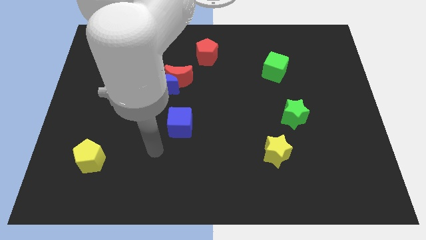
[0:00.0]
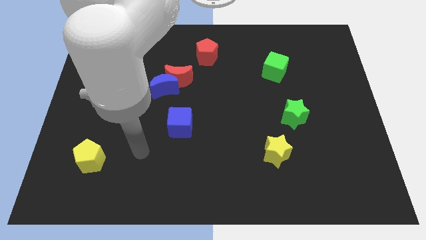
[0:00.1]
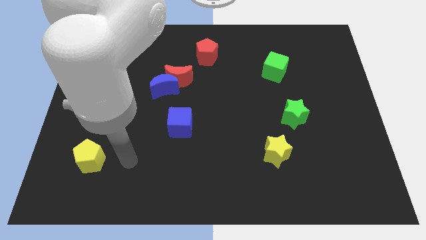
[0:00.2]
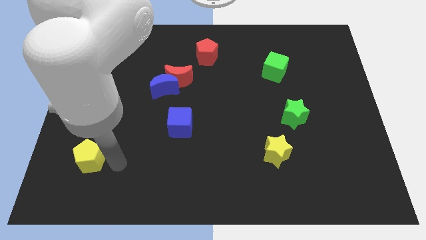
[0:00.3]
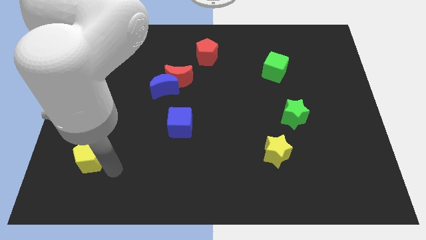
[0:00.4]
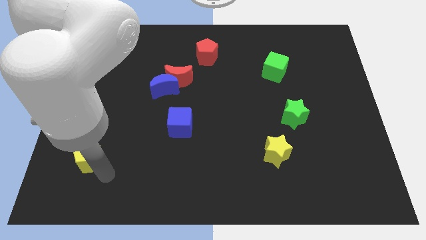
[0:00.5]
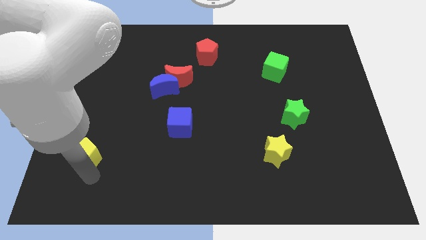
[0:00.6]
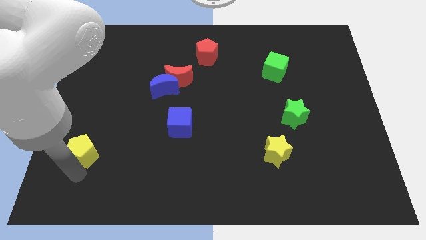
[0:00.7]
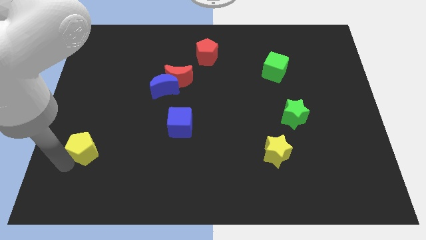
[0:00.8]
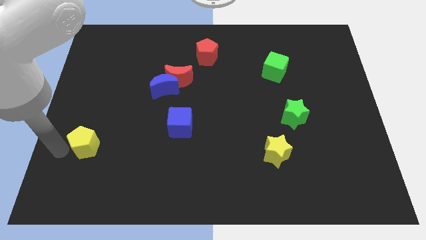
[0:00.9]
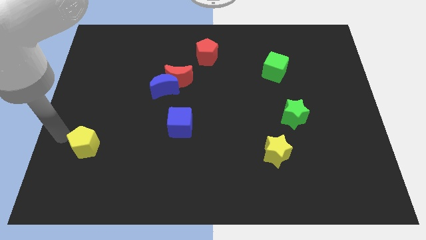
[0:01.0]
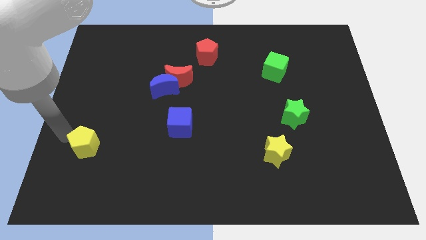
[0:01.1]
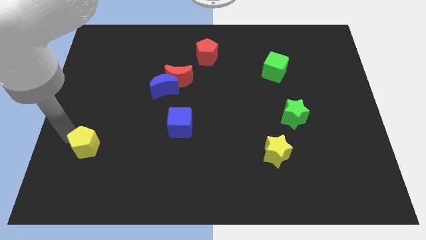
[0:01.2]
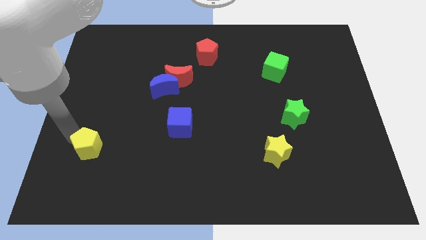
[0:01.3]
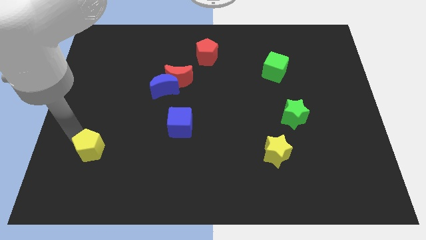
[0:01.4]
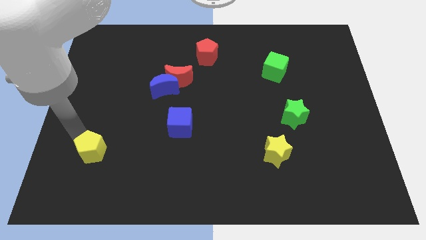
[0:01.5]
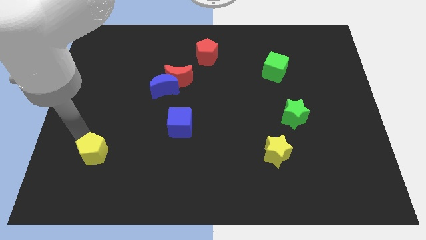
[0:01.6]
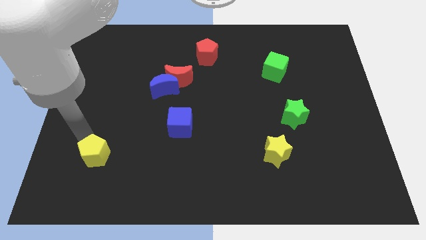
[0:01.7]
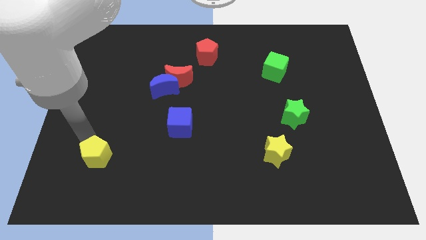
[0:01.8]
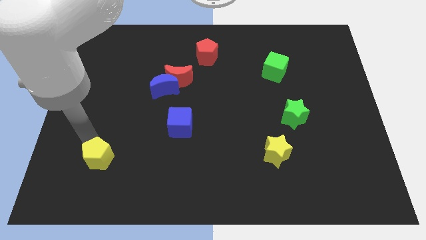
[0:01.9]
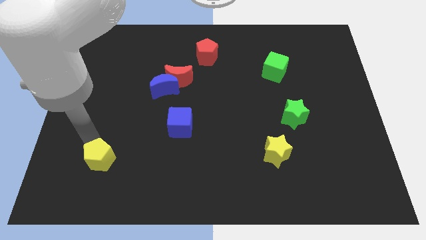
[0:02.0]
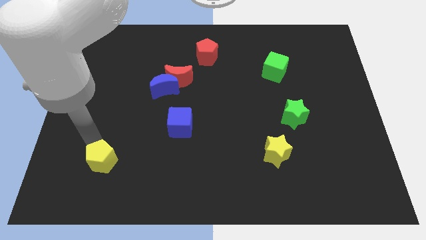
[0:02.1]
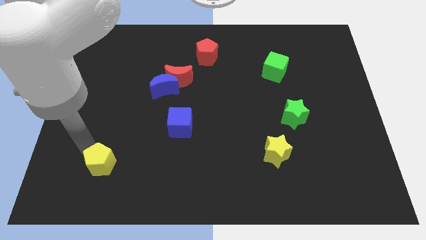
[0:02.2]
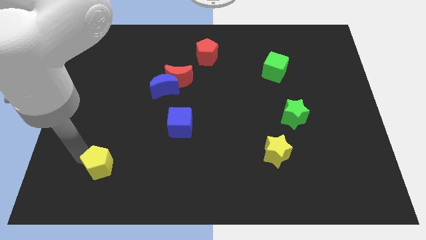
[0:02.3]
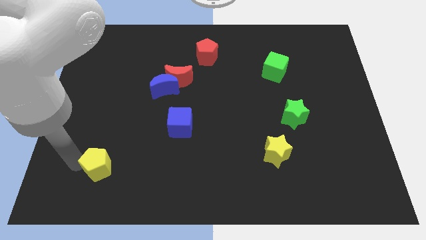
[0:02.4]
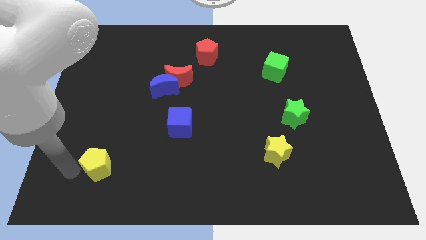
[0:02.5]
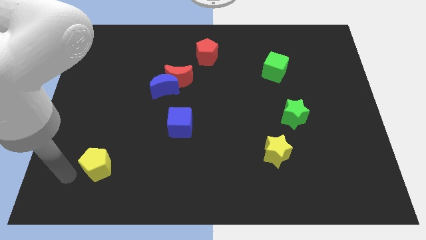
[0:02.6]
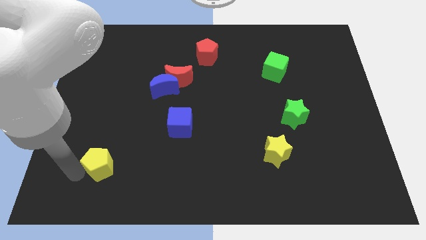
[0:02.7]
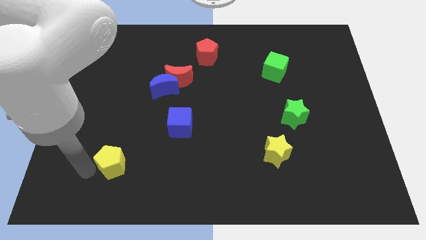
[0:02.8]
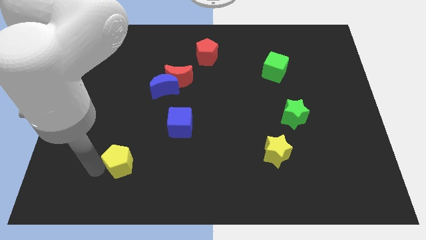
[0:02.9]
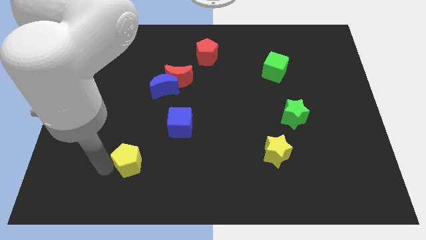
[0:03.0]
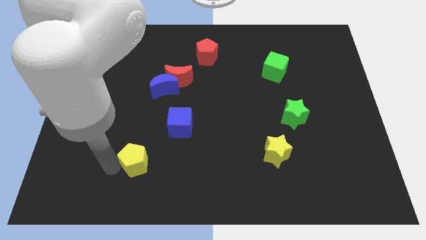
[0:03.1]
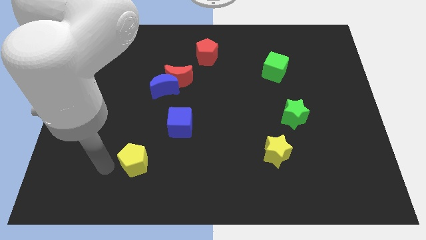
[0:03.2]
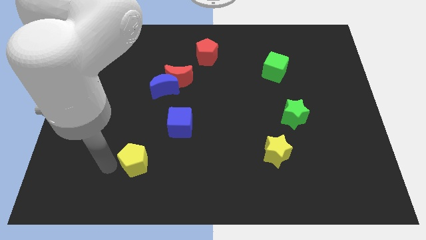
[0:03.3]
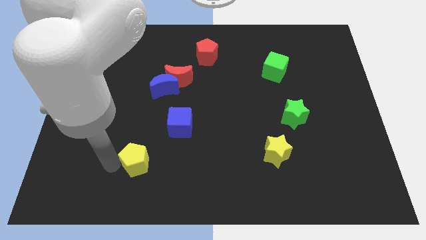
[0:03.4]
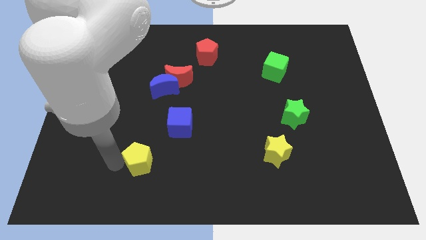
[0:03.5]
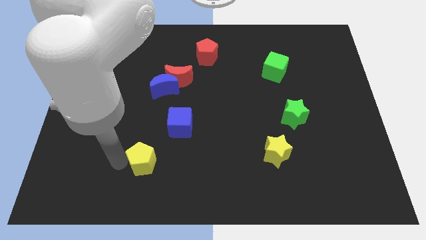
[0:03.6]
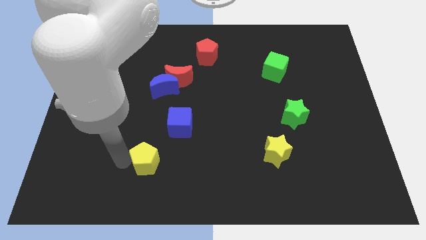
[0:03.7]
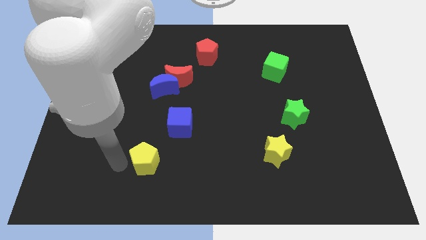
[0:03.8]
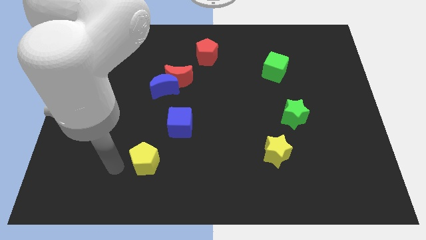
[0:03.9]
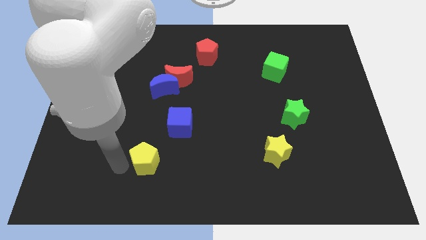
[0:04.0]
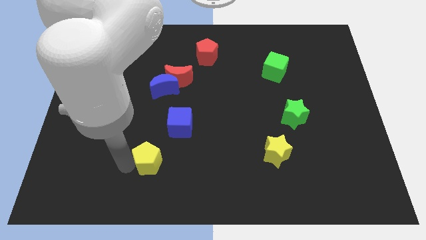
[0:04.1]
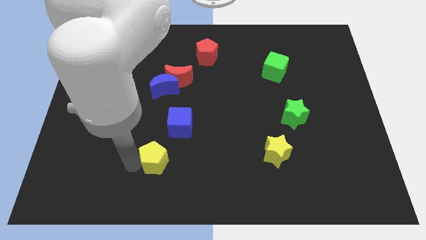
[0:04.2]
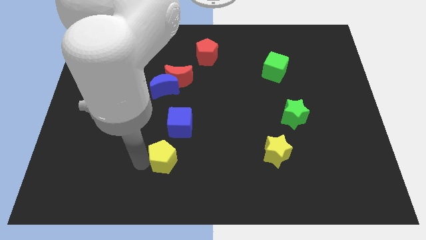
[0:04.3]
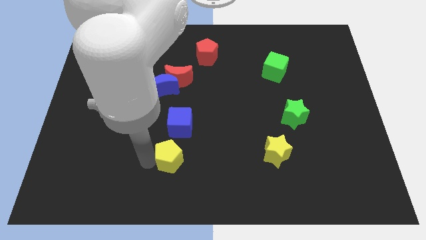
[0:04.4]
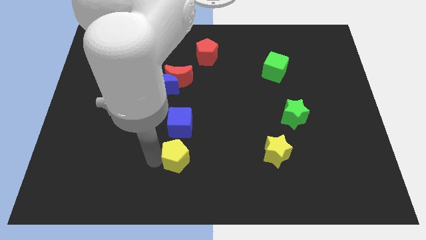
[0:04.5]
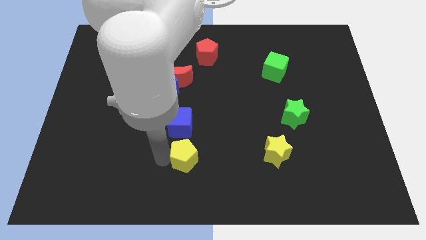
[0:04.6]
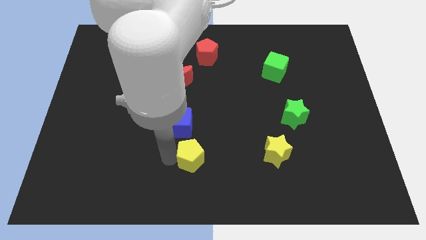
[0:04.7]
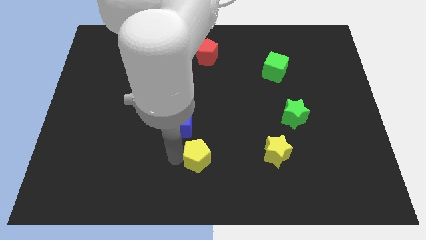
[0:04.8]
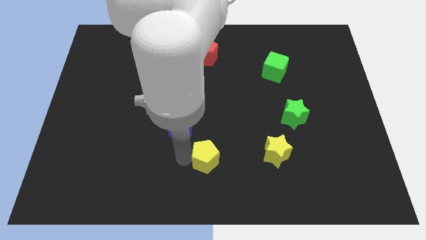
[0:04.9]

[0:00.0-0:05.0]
push the yellow pentagon to the left of the yellow star

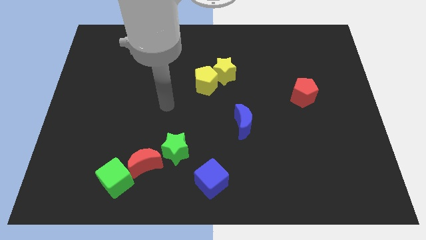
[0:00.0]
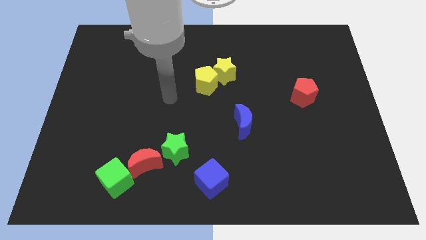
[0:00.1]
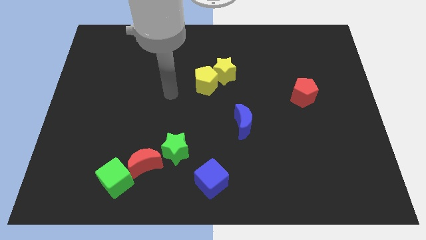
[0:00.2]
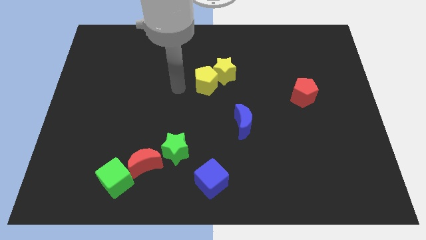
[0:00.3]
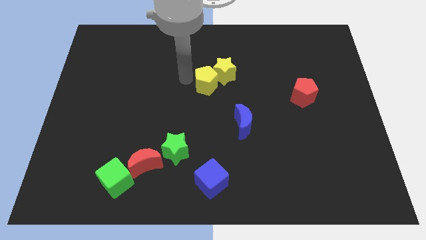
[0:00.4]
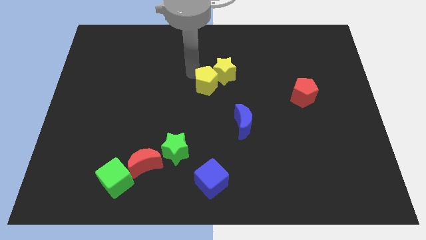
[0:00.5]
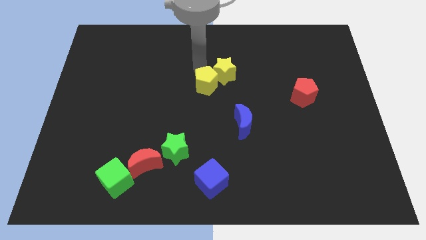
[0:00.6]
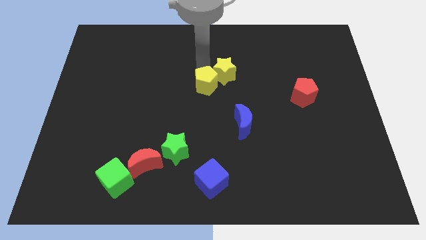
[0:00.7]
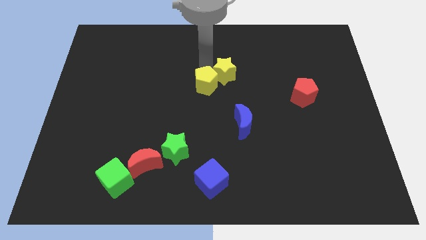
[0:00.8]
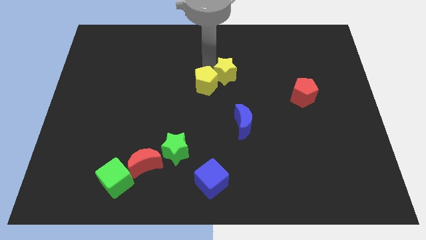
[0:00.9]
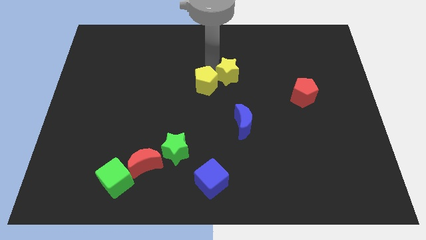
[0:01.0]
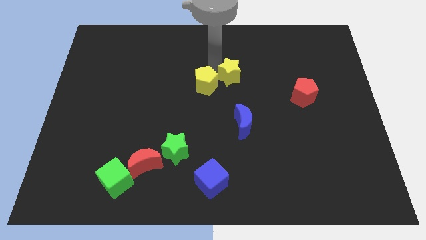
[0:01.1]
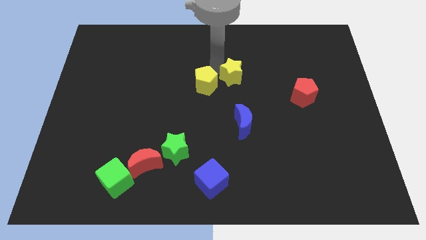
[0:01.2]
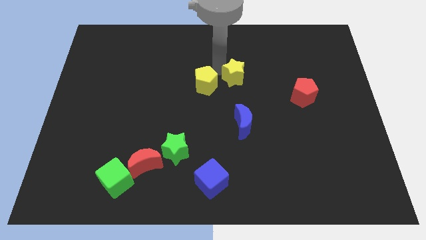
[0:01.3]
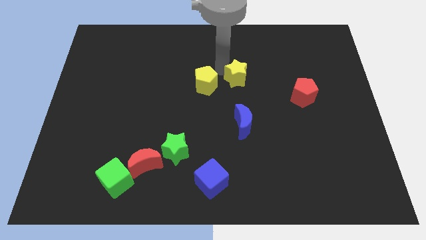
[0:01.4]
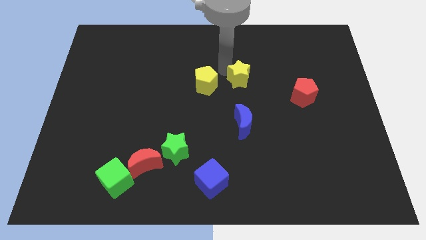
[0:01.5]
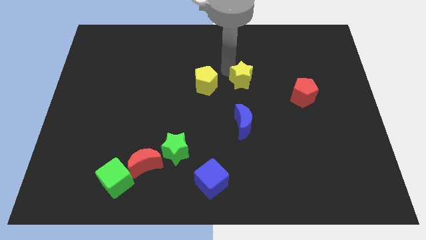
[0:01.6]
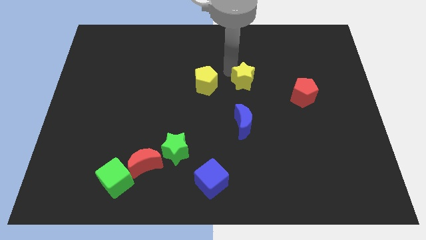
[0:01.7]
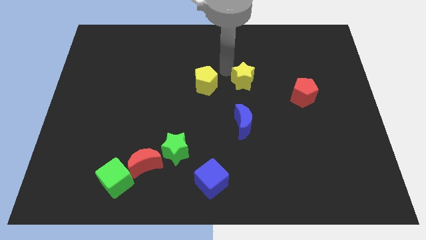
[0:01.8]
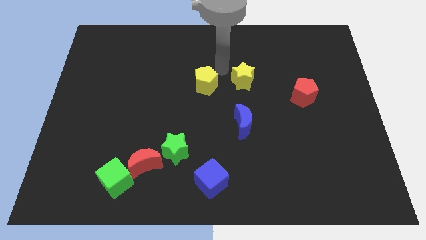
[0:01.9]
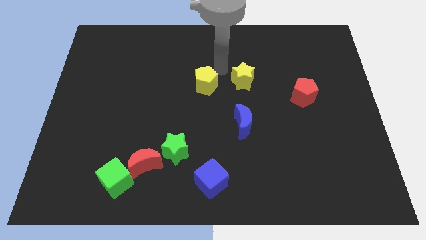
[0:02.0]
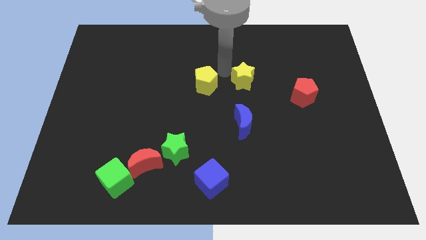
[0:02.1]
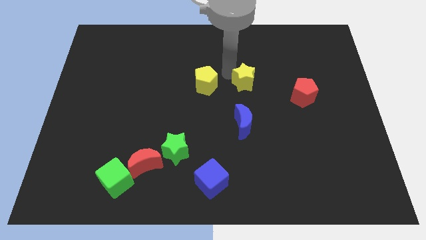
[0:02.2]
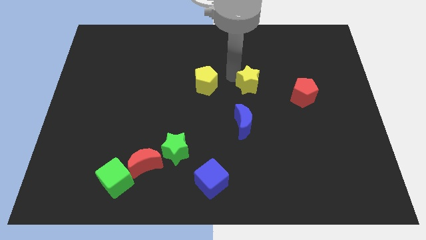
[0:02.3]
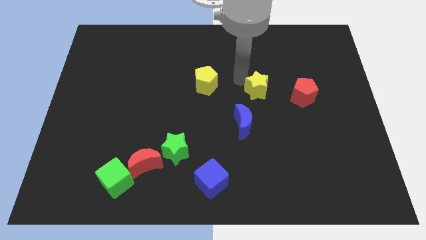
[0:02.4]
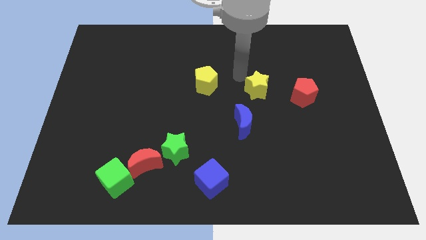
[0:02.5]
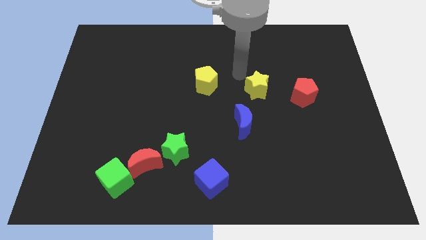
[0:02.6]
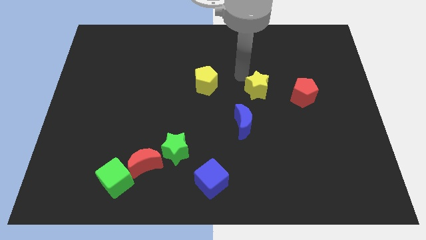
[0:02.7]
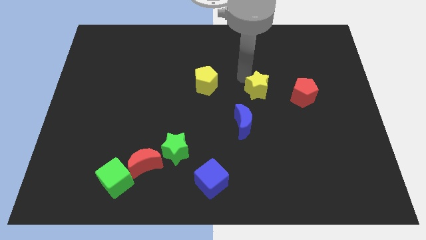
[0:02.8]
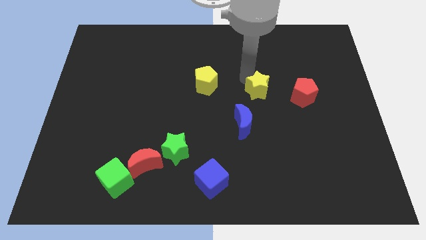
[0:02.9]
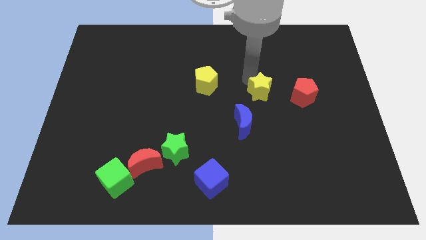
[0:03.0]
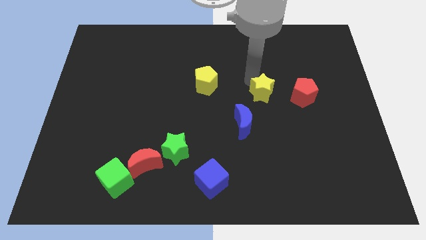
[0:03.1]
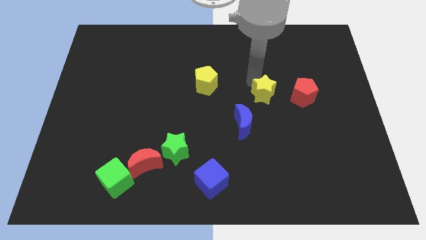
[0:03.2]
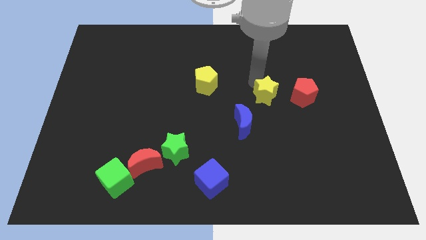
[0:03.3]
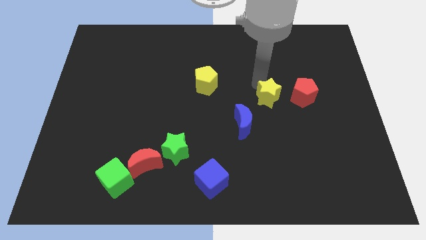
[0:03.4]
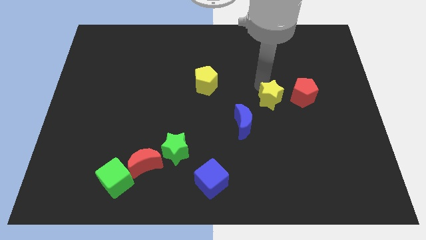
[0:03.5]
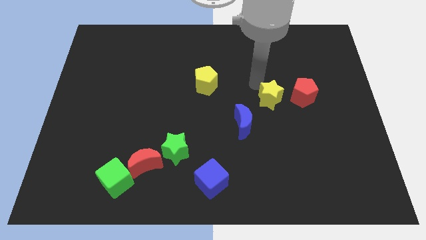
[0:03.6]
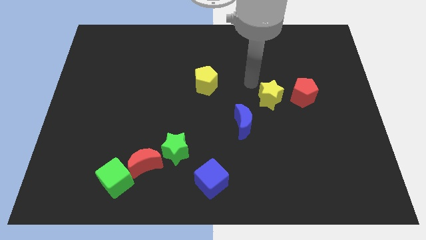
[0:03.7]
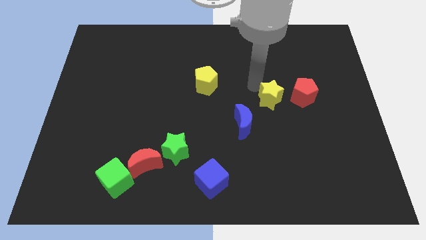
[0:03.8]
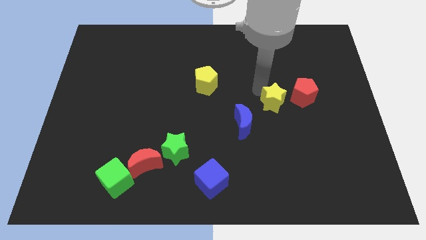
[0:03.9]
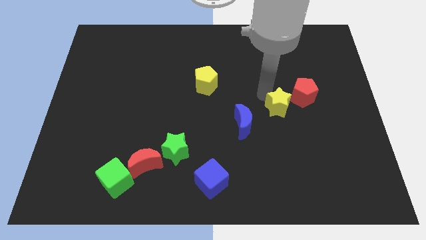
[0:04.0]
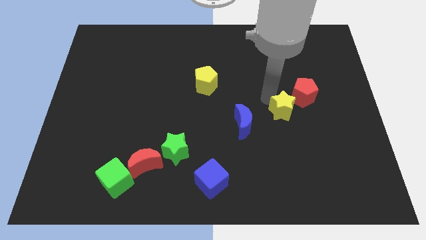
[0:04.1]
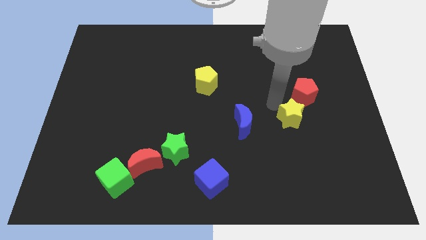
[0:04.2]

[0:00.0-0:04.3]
move the yellow star to the bottom side of the red pentagon
